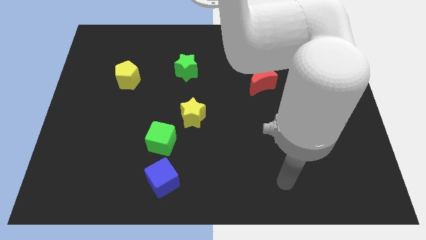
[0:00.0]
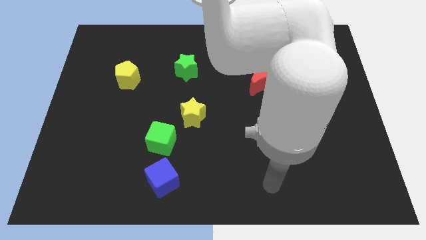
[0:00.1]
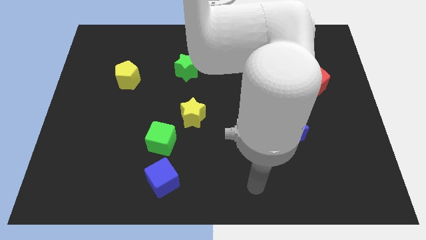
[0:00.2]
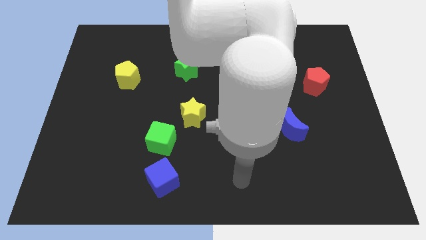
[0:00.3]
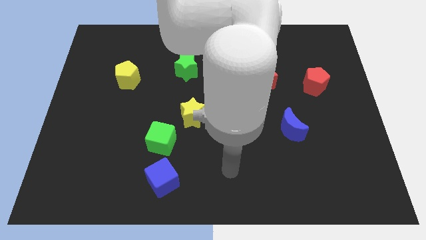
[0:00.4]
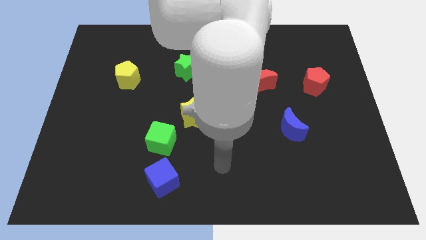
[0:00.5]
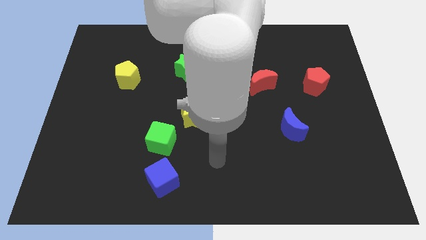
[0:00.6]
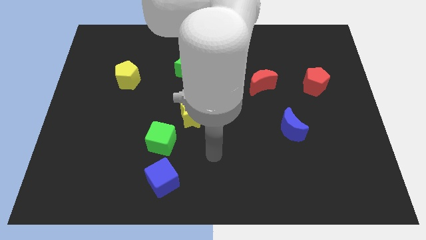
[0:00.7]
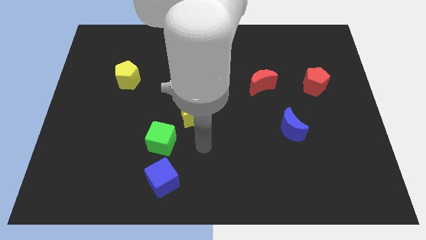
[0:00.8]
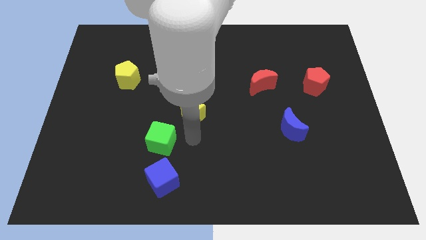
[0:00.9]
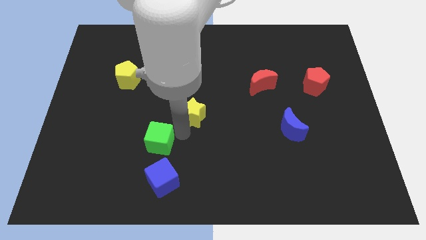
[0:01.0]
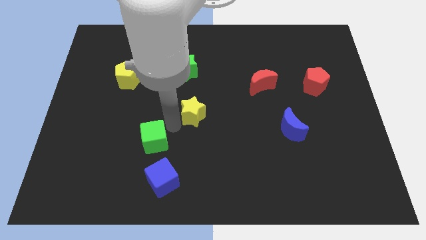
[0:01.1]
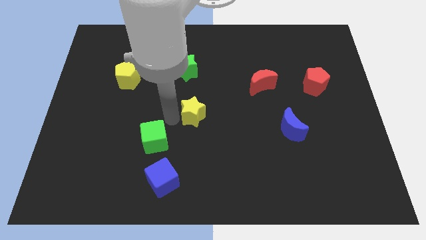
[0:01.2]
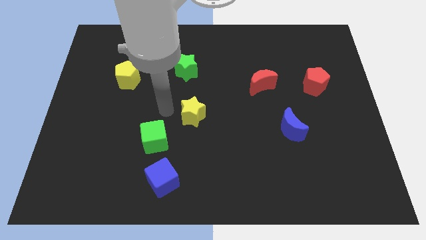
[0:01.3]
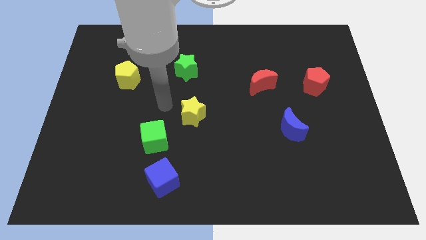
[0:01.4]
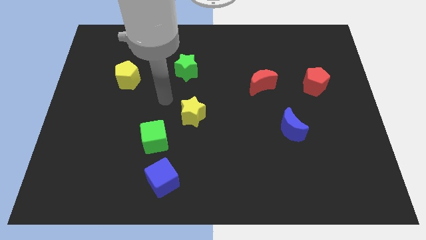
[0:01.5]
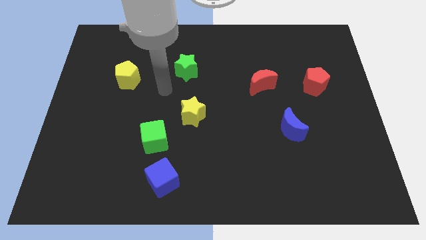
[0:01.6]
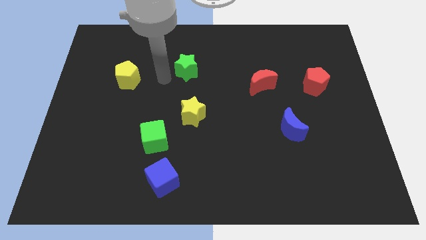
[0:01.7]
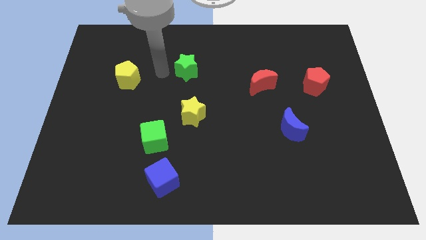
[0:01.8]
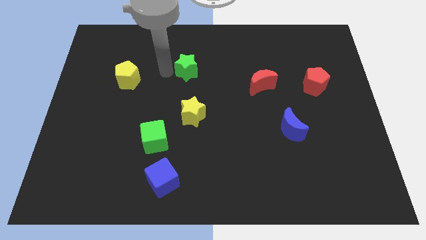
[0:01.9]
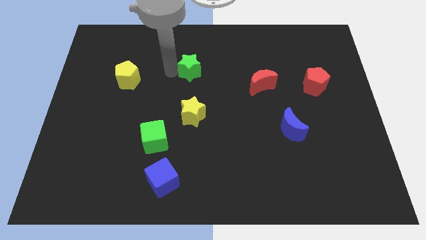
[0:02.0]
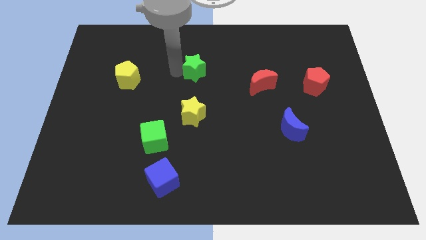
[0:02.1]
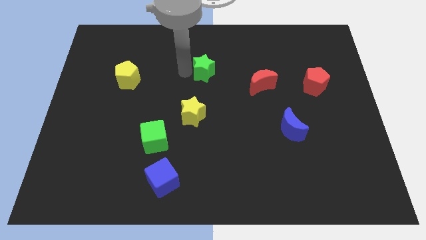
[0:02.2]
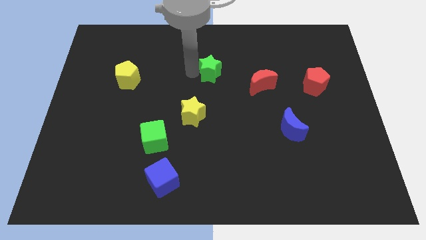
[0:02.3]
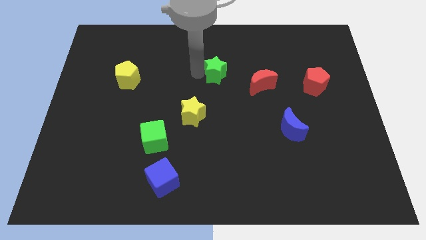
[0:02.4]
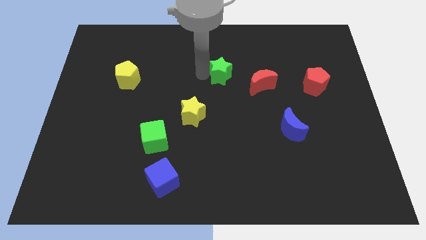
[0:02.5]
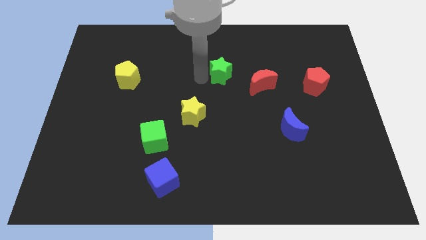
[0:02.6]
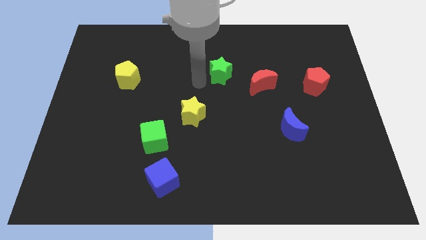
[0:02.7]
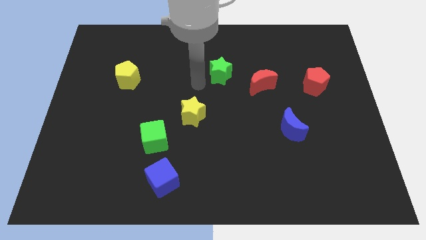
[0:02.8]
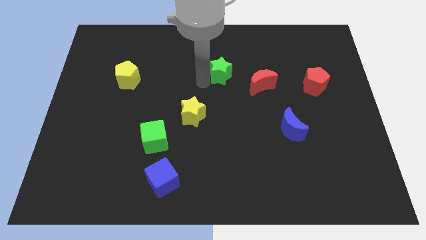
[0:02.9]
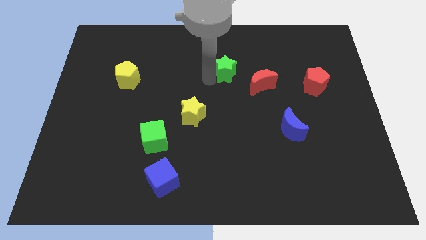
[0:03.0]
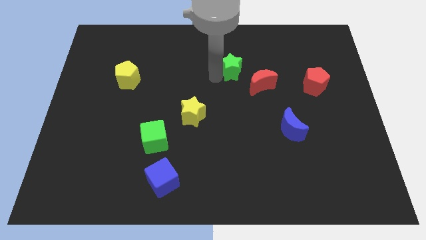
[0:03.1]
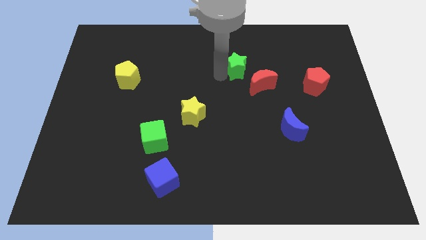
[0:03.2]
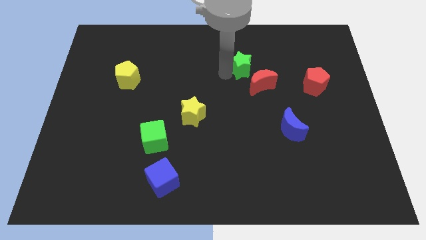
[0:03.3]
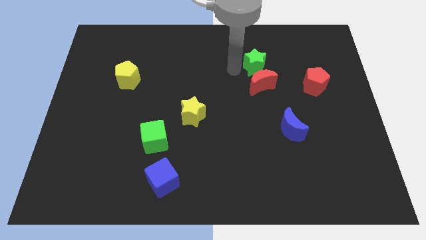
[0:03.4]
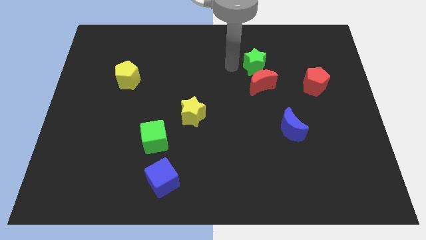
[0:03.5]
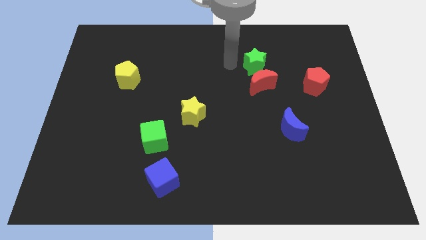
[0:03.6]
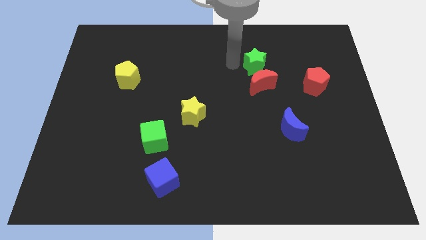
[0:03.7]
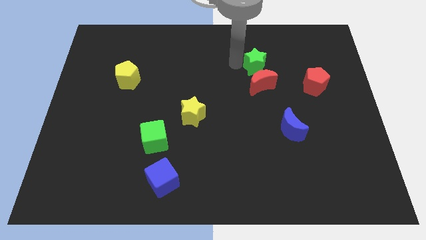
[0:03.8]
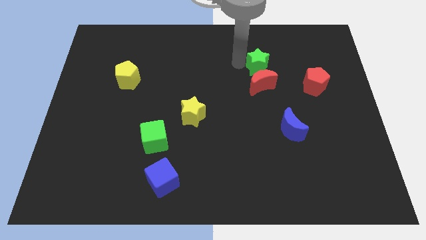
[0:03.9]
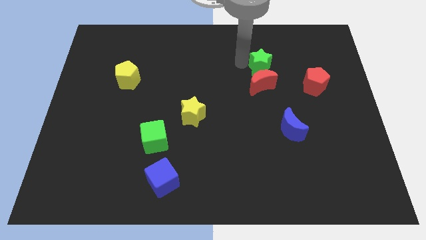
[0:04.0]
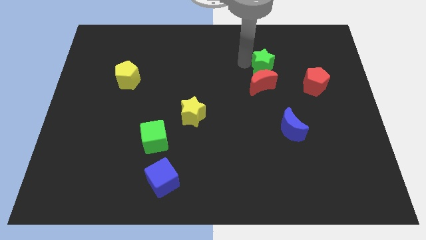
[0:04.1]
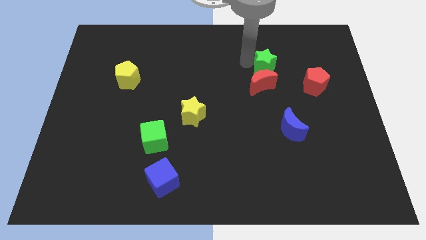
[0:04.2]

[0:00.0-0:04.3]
slide the green star to the right

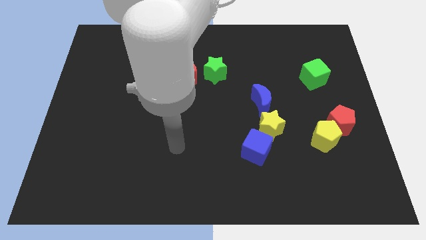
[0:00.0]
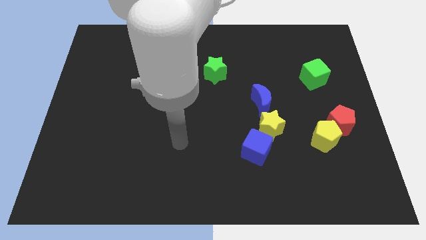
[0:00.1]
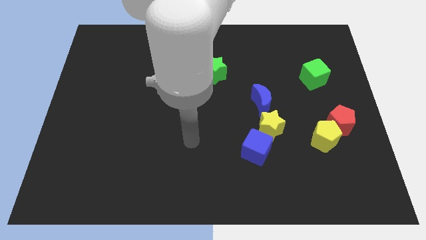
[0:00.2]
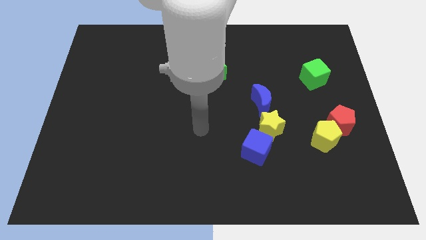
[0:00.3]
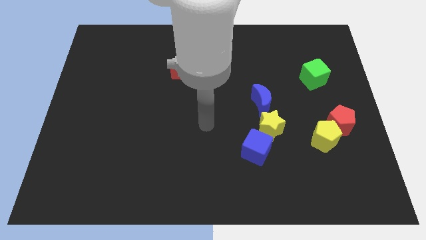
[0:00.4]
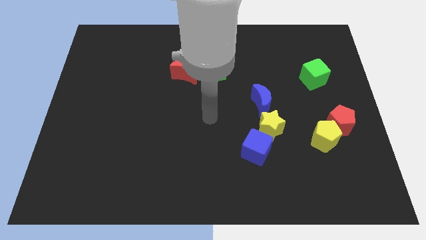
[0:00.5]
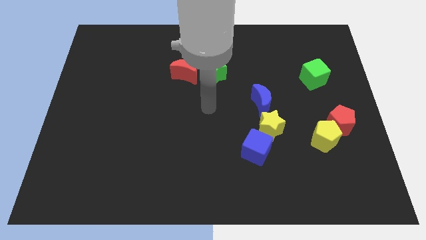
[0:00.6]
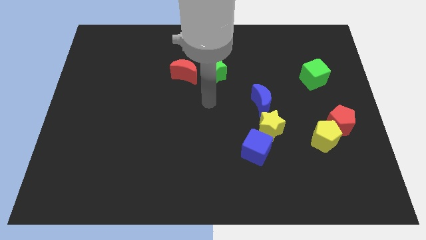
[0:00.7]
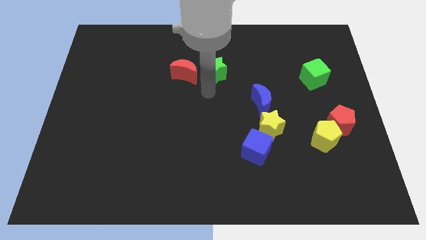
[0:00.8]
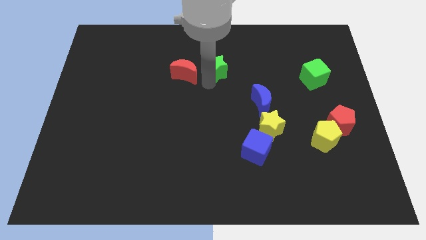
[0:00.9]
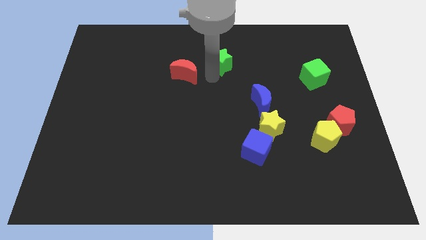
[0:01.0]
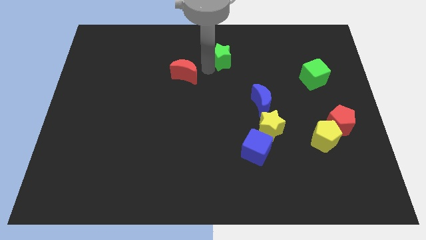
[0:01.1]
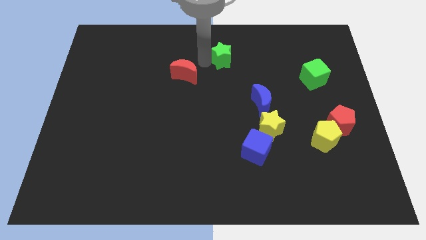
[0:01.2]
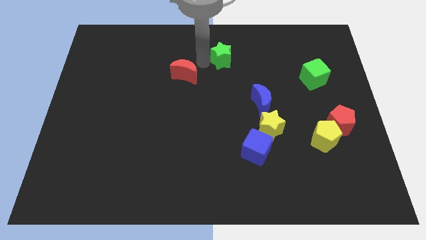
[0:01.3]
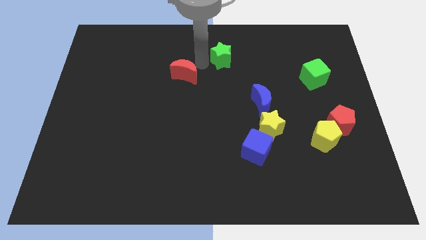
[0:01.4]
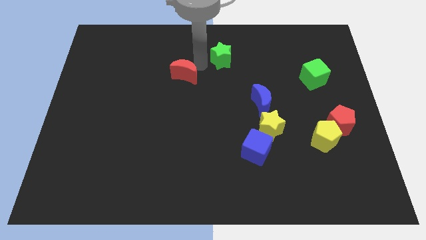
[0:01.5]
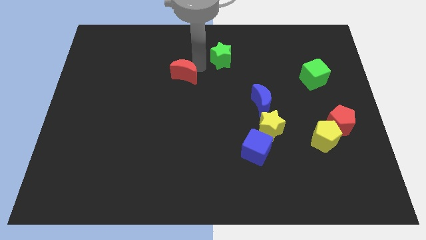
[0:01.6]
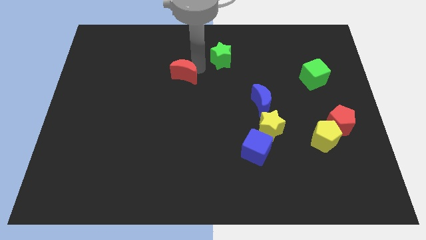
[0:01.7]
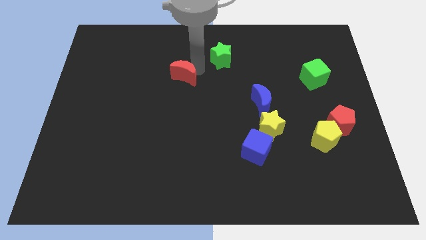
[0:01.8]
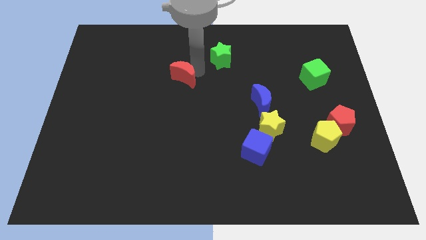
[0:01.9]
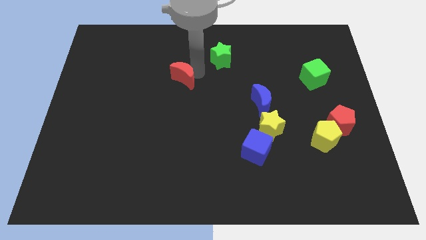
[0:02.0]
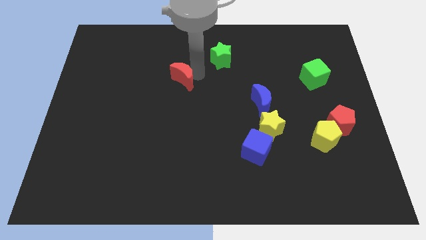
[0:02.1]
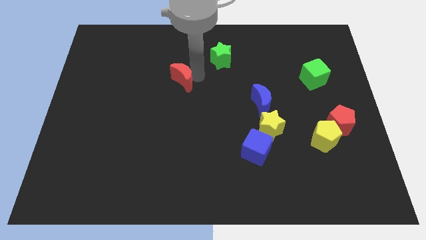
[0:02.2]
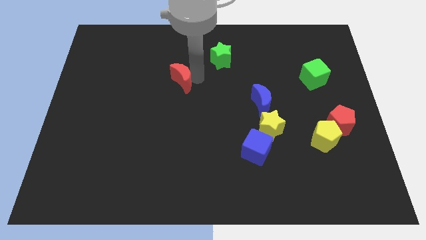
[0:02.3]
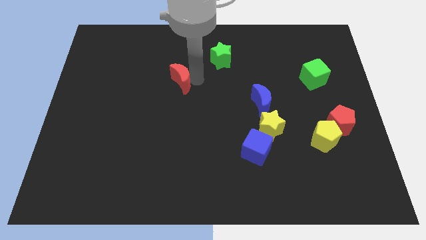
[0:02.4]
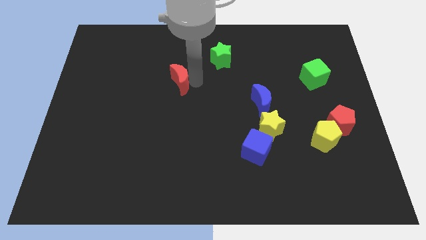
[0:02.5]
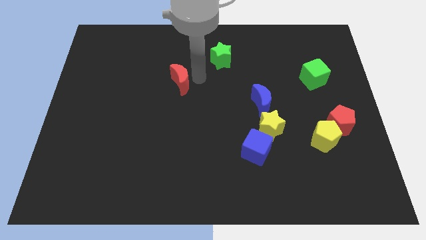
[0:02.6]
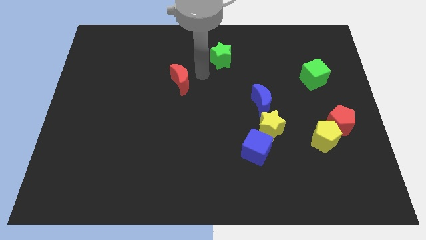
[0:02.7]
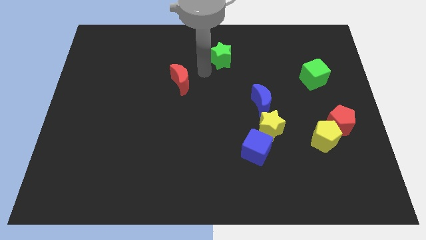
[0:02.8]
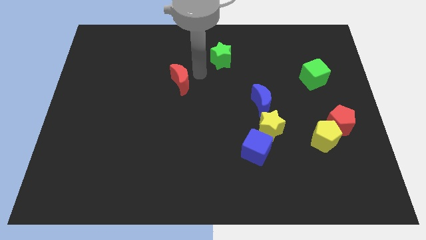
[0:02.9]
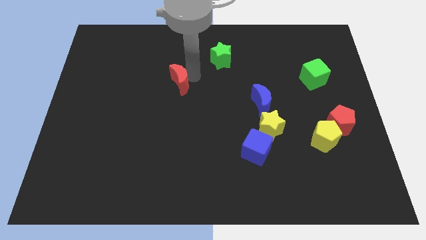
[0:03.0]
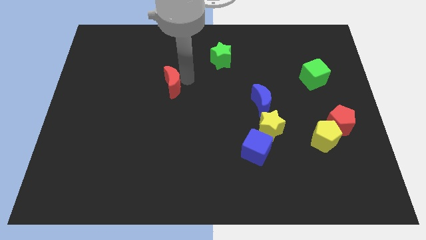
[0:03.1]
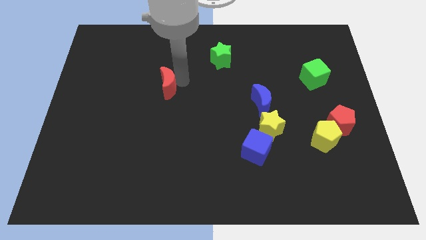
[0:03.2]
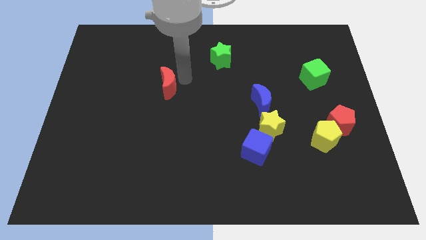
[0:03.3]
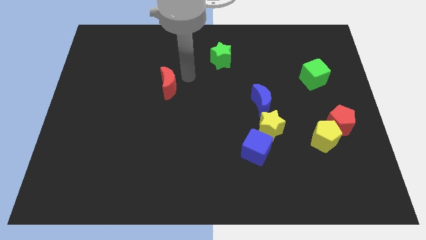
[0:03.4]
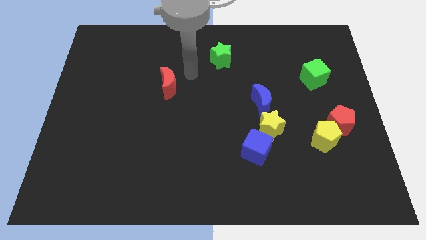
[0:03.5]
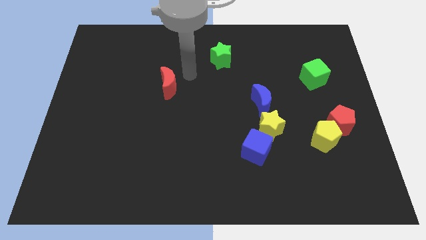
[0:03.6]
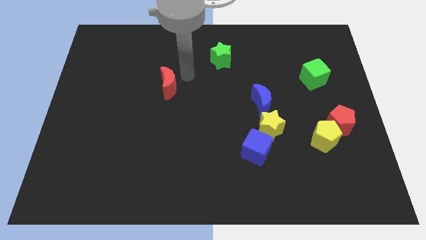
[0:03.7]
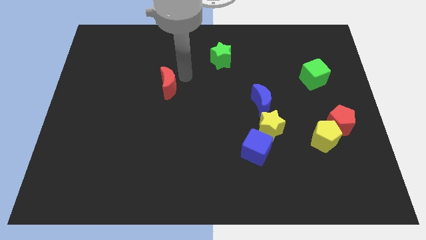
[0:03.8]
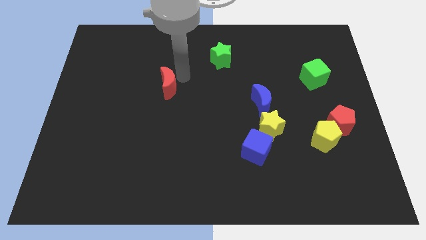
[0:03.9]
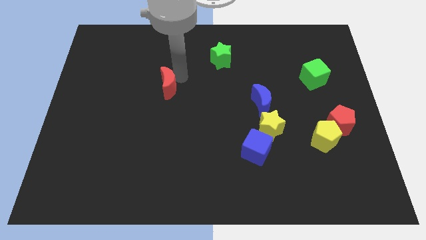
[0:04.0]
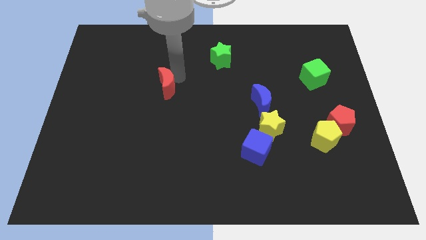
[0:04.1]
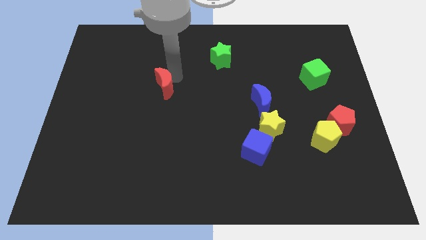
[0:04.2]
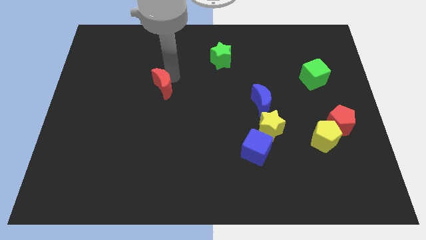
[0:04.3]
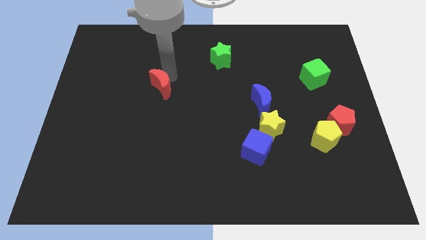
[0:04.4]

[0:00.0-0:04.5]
push the red moon downwards and then to the left a little bit
